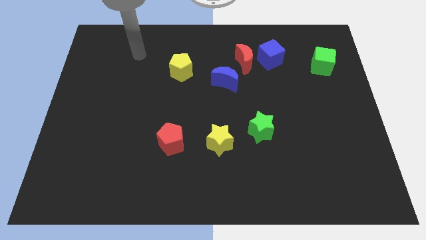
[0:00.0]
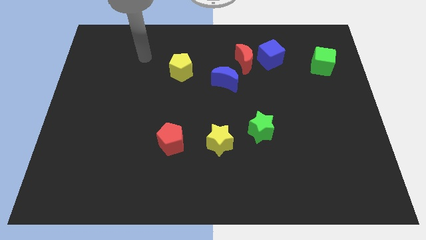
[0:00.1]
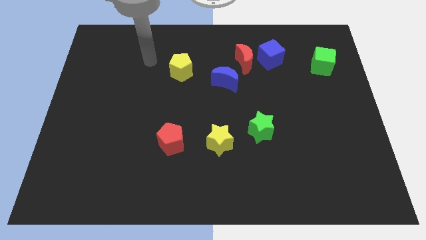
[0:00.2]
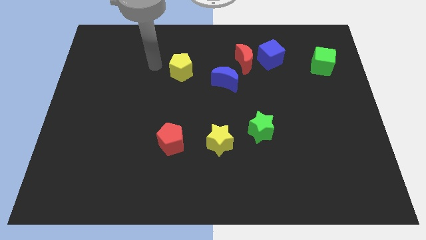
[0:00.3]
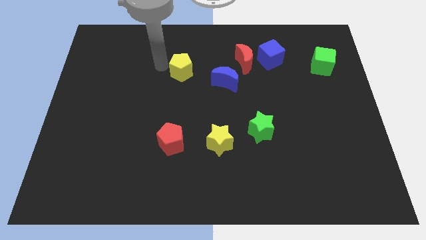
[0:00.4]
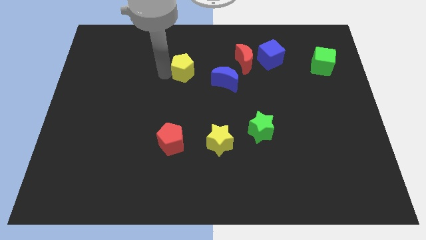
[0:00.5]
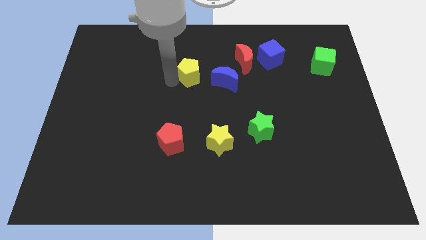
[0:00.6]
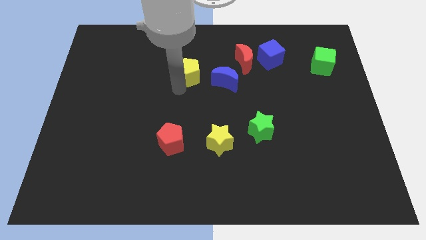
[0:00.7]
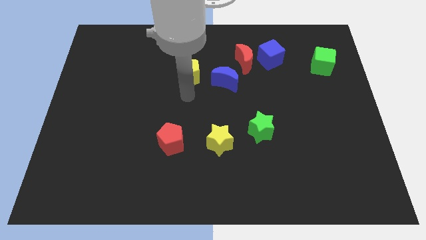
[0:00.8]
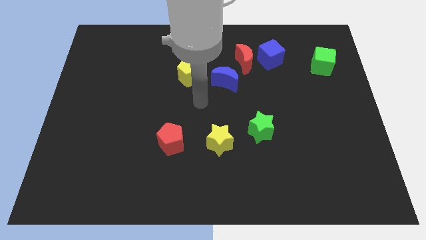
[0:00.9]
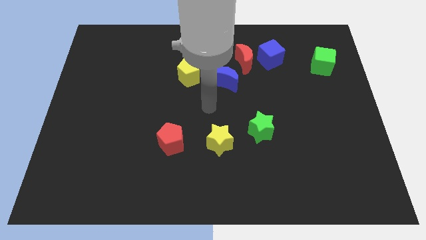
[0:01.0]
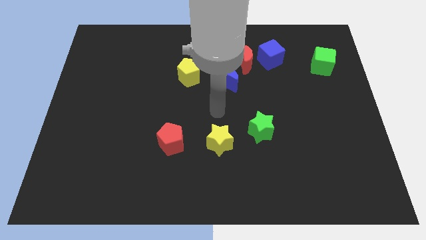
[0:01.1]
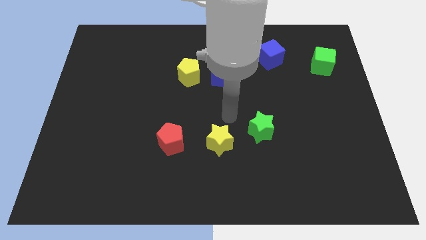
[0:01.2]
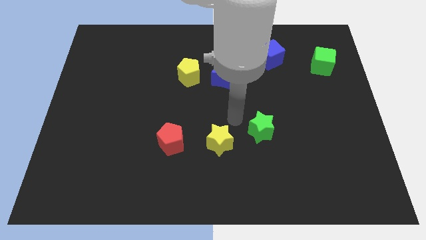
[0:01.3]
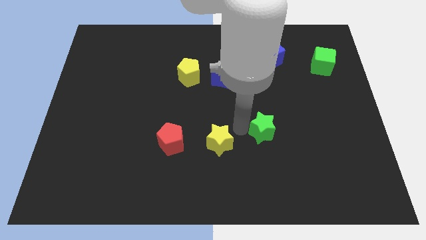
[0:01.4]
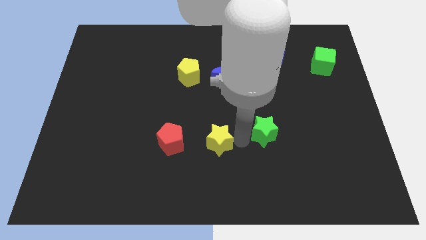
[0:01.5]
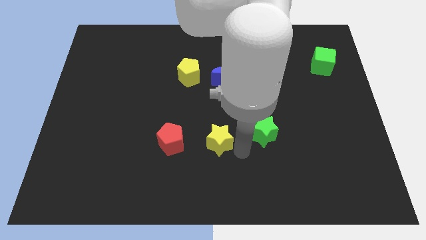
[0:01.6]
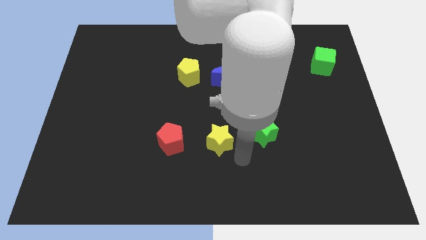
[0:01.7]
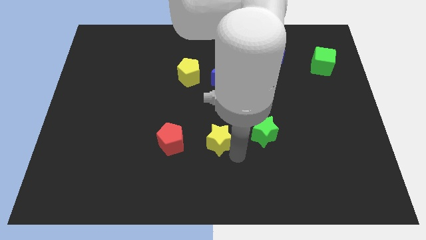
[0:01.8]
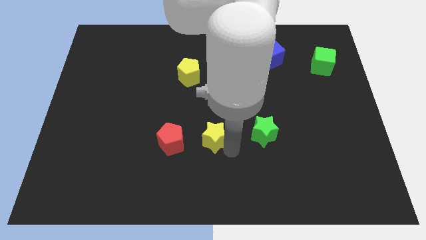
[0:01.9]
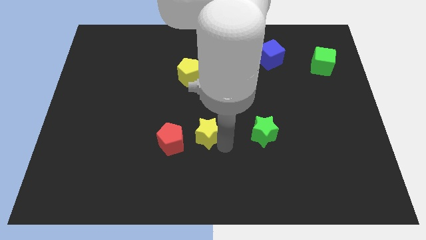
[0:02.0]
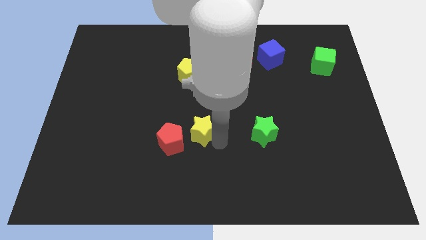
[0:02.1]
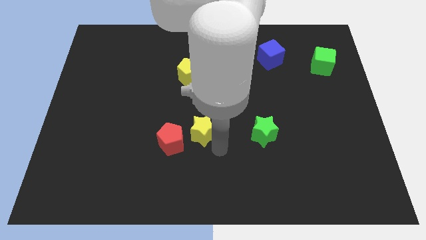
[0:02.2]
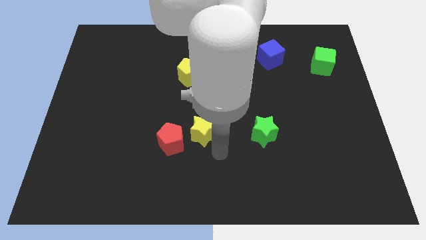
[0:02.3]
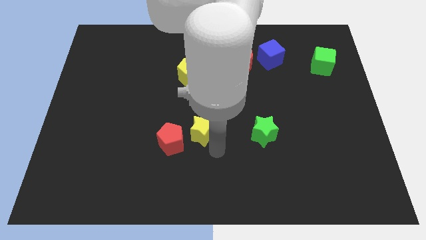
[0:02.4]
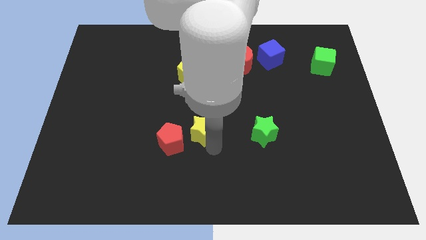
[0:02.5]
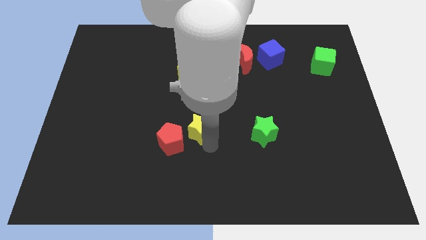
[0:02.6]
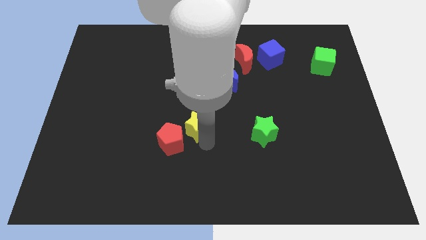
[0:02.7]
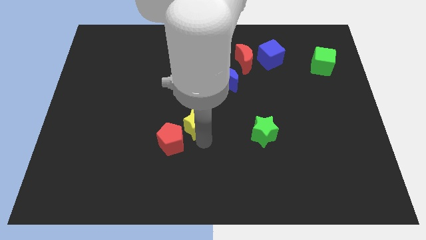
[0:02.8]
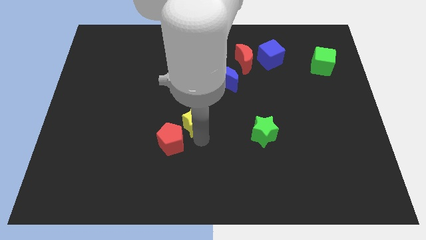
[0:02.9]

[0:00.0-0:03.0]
slightly move the yellow star up and then to the left

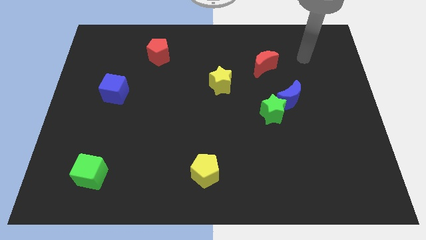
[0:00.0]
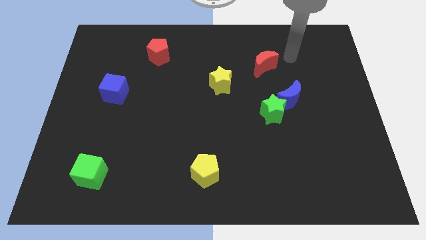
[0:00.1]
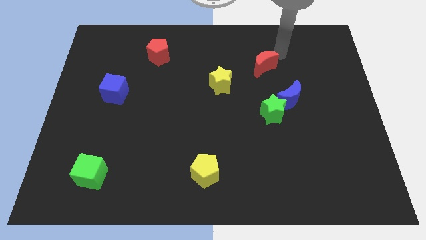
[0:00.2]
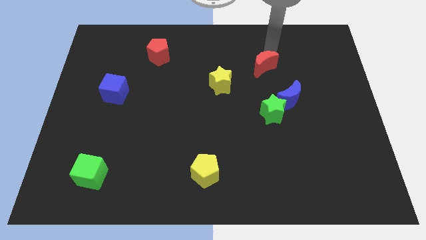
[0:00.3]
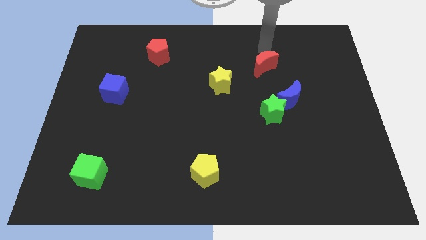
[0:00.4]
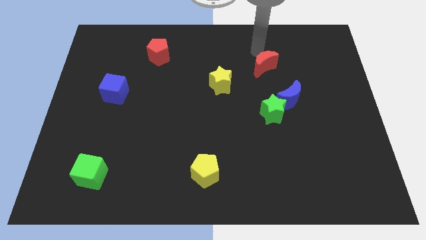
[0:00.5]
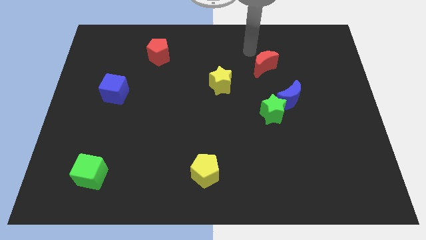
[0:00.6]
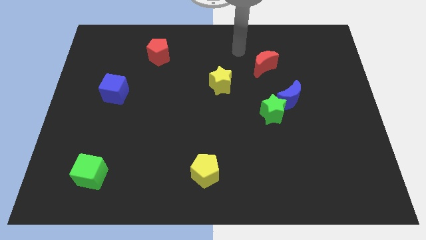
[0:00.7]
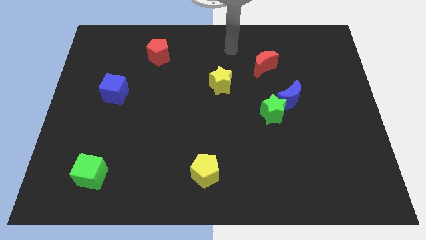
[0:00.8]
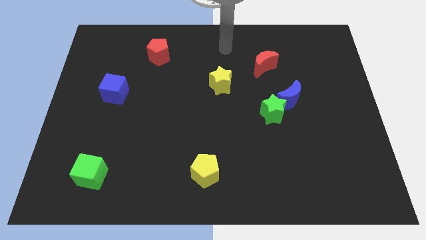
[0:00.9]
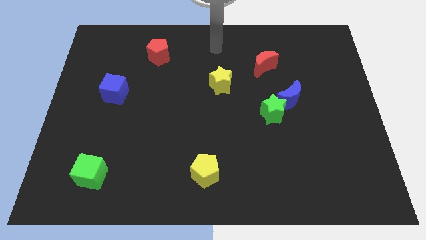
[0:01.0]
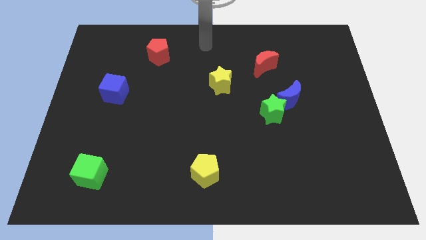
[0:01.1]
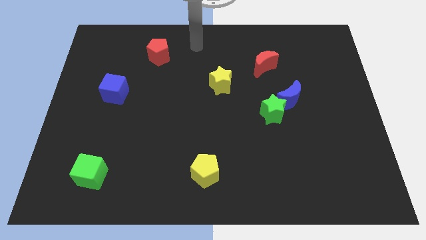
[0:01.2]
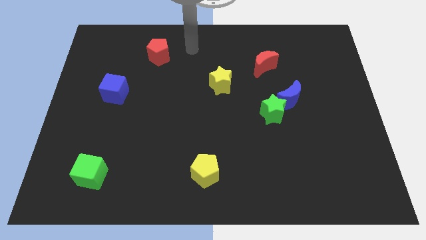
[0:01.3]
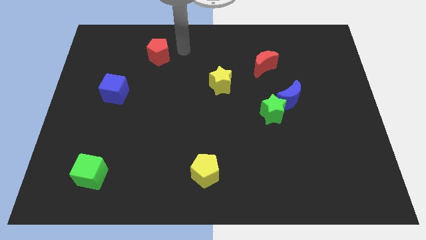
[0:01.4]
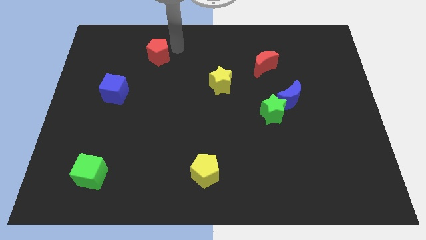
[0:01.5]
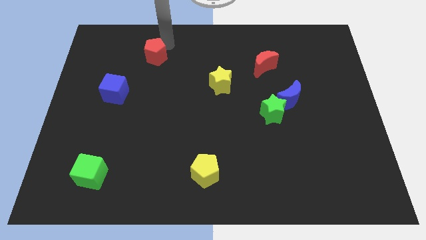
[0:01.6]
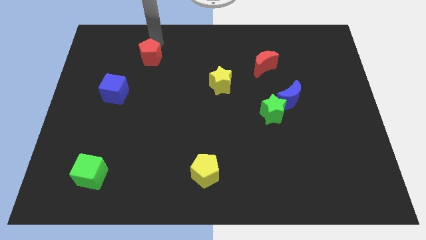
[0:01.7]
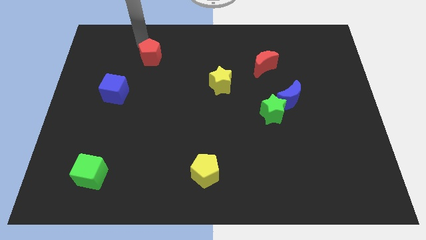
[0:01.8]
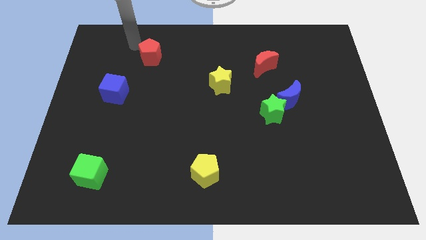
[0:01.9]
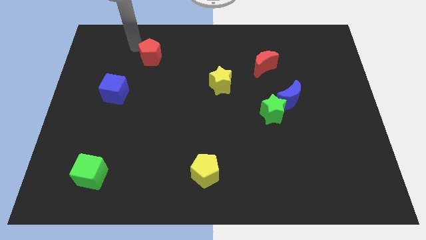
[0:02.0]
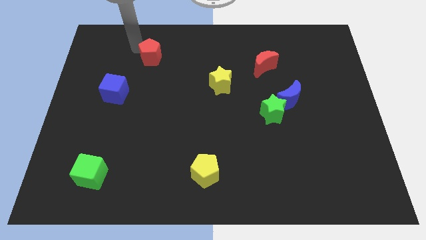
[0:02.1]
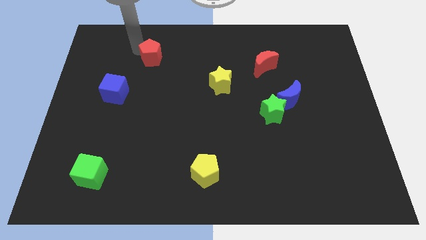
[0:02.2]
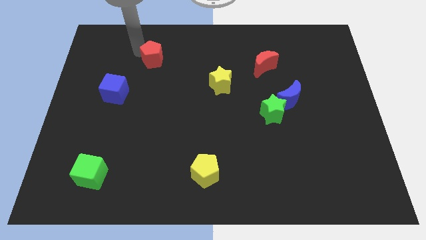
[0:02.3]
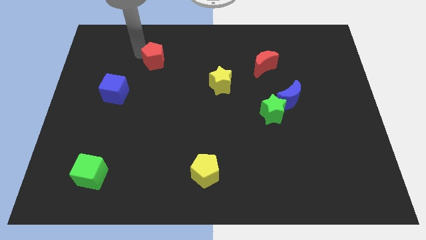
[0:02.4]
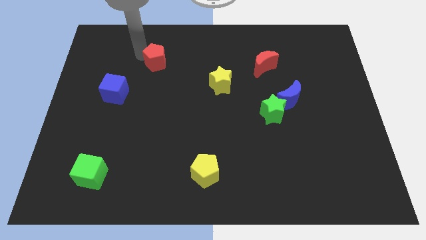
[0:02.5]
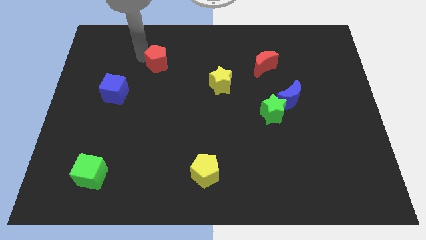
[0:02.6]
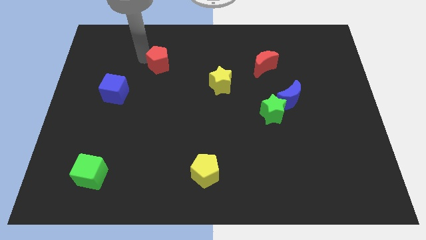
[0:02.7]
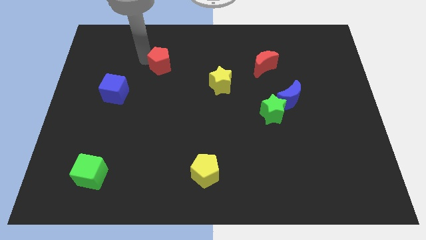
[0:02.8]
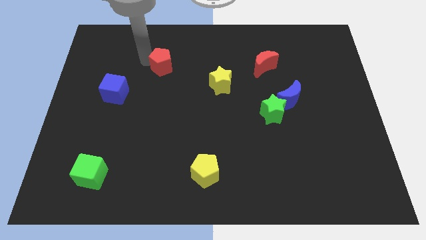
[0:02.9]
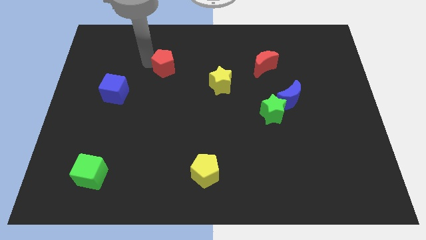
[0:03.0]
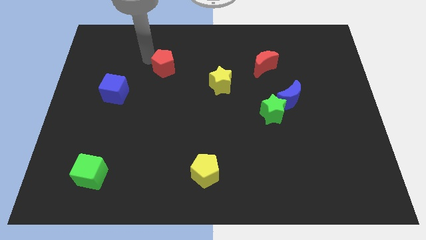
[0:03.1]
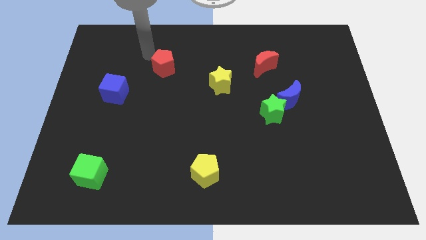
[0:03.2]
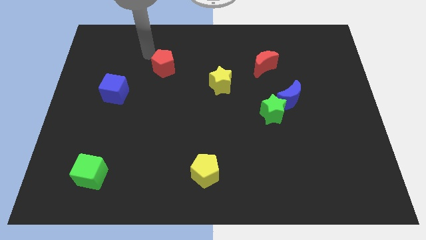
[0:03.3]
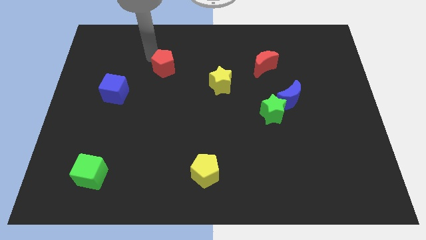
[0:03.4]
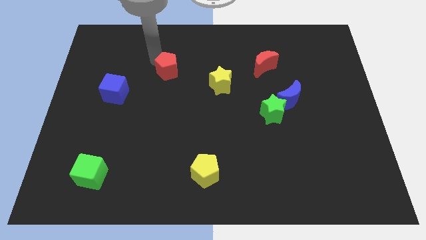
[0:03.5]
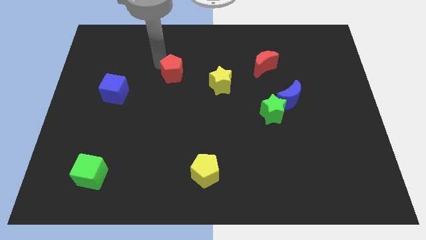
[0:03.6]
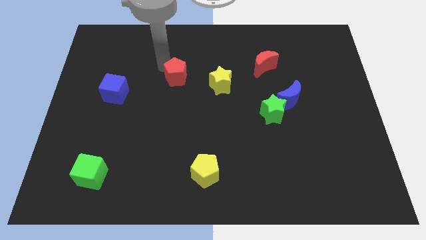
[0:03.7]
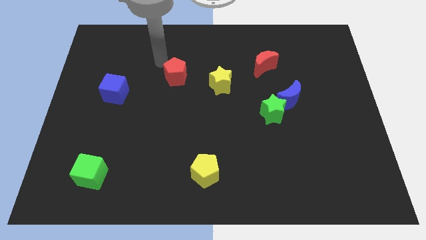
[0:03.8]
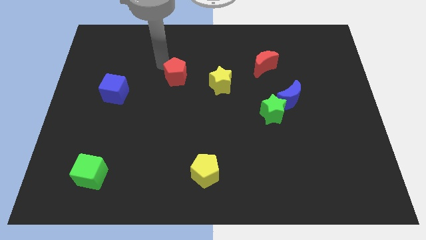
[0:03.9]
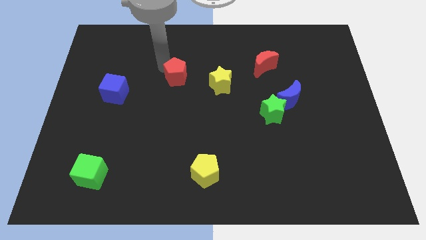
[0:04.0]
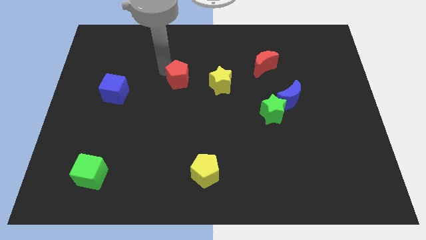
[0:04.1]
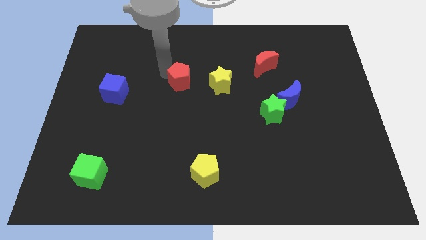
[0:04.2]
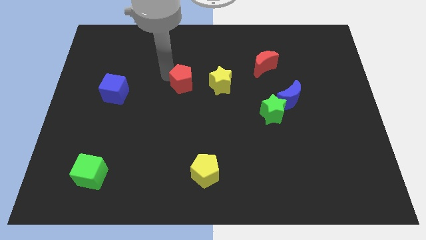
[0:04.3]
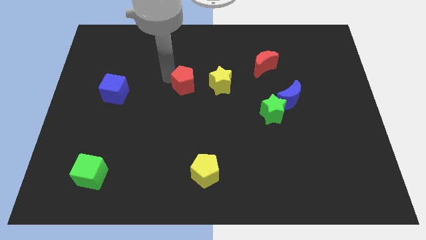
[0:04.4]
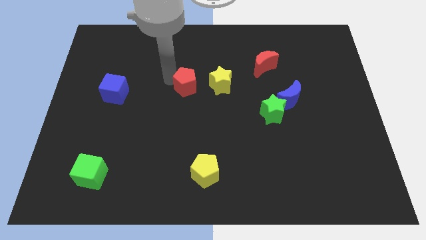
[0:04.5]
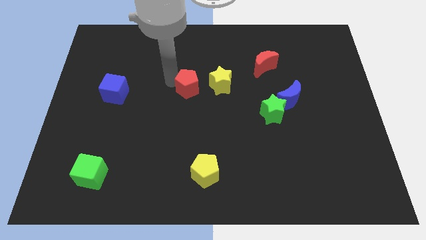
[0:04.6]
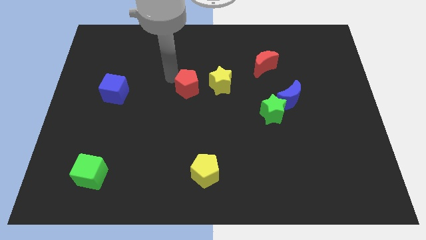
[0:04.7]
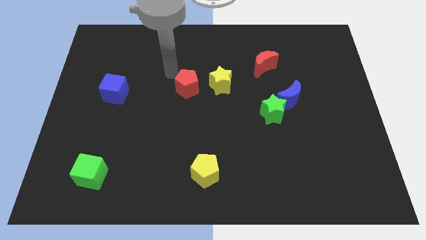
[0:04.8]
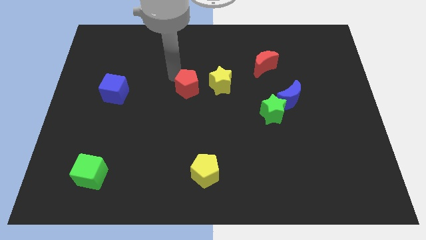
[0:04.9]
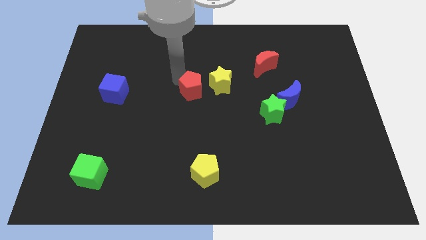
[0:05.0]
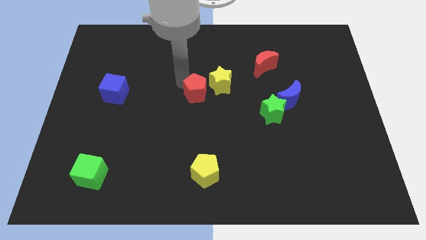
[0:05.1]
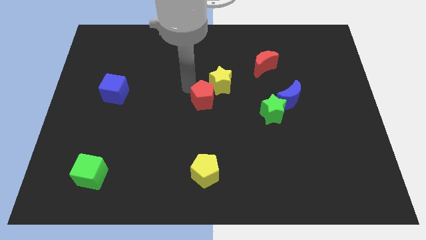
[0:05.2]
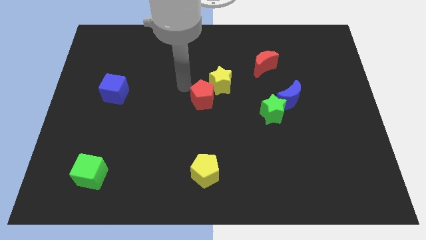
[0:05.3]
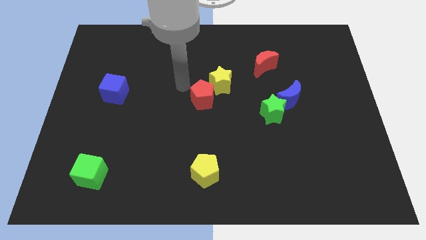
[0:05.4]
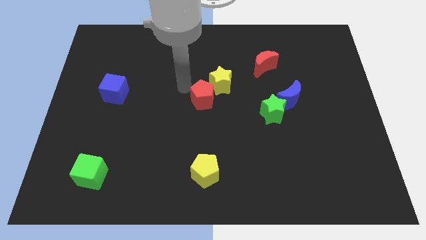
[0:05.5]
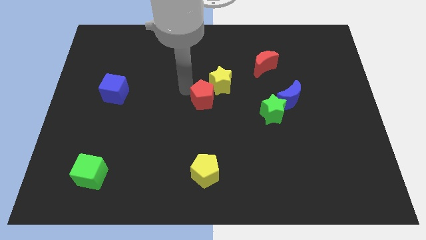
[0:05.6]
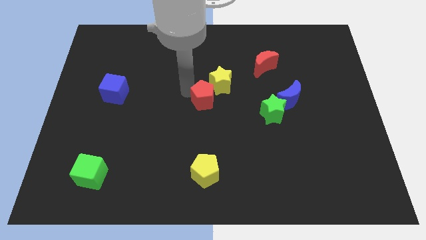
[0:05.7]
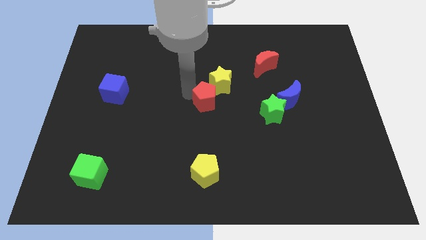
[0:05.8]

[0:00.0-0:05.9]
slide the red pentagon down and right diagonally
